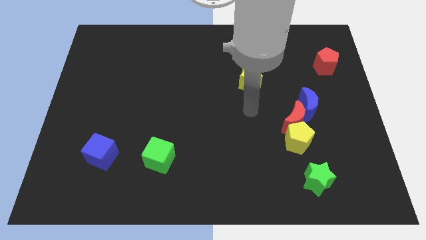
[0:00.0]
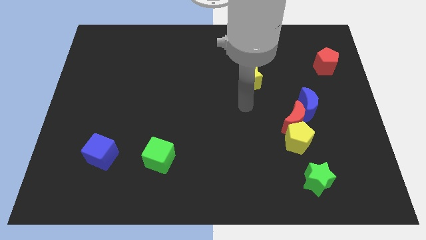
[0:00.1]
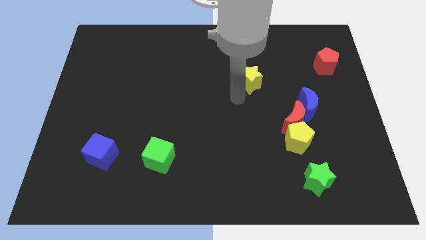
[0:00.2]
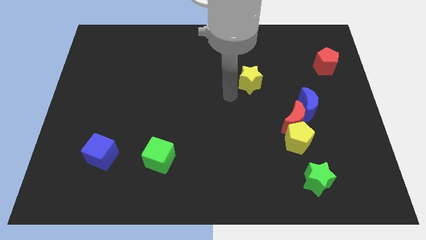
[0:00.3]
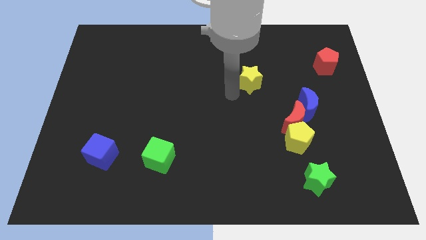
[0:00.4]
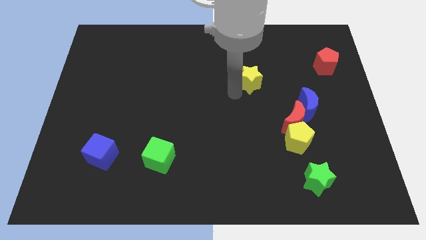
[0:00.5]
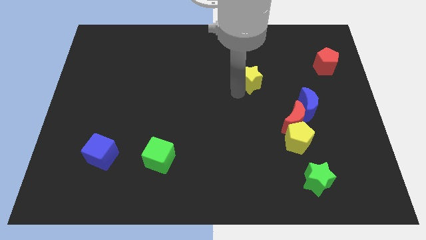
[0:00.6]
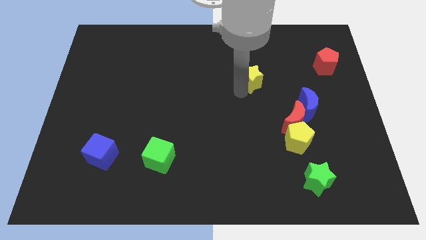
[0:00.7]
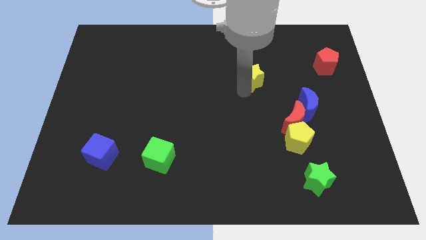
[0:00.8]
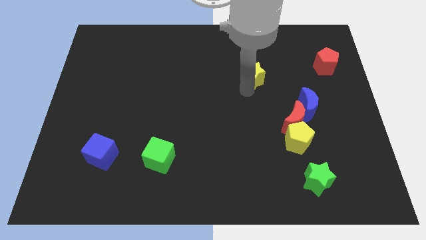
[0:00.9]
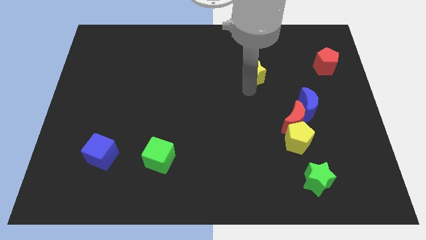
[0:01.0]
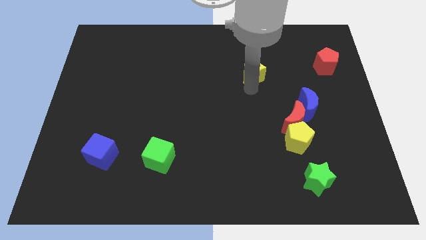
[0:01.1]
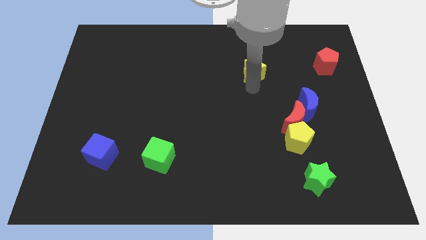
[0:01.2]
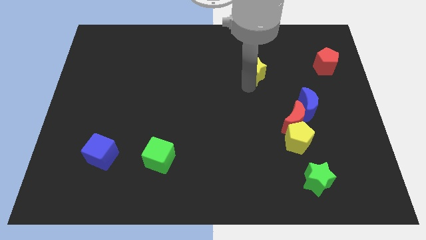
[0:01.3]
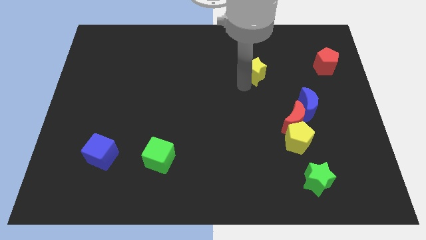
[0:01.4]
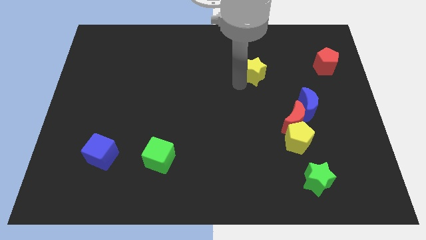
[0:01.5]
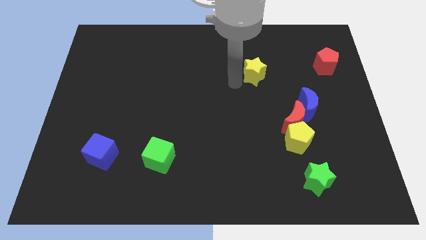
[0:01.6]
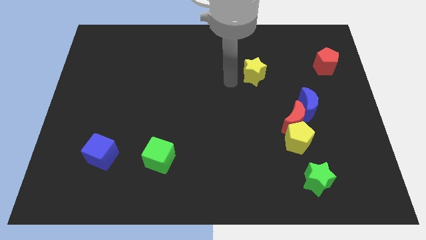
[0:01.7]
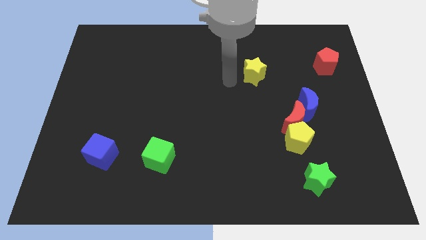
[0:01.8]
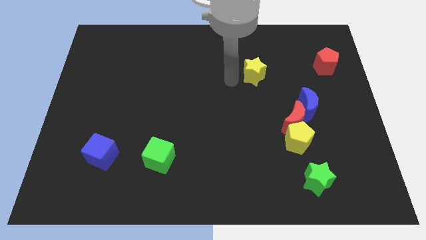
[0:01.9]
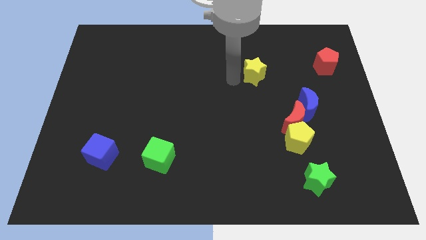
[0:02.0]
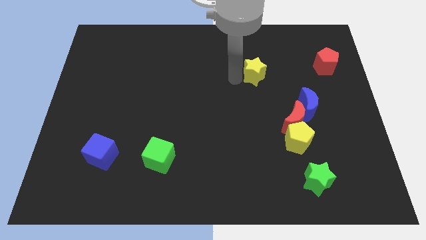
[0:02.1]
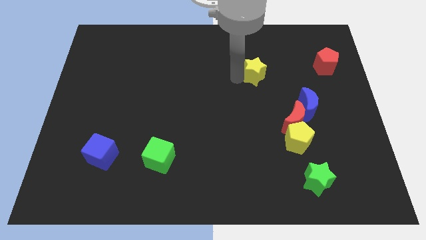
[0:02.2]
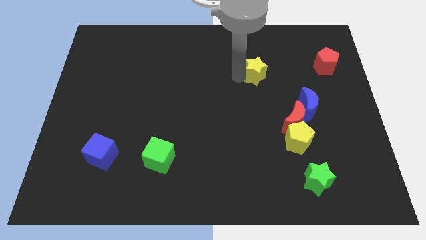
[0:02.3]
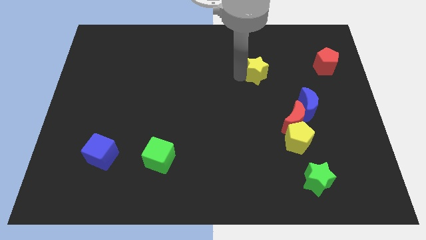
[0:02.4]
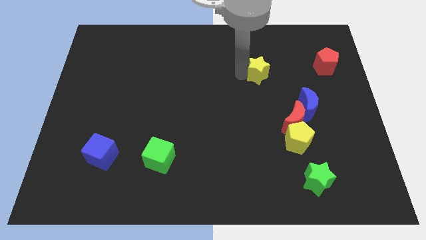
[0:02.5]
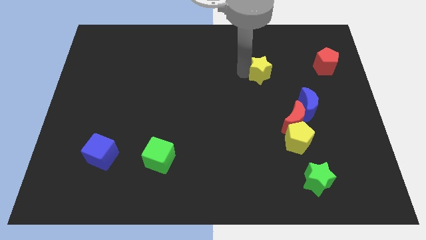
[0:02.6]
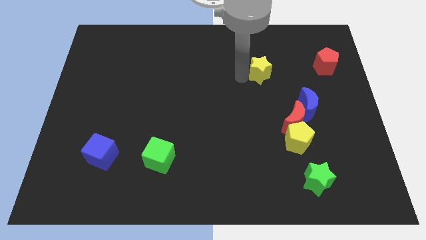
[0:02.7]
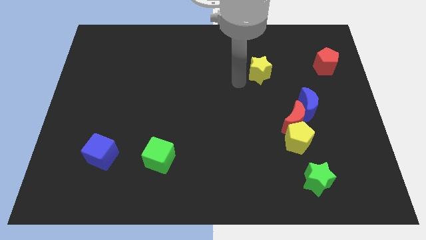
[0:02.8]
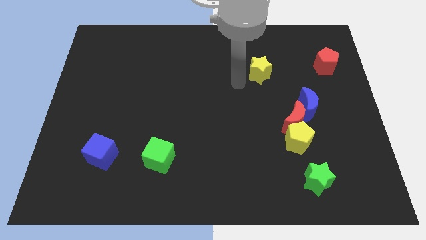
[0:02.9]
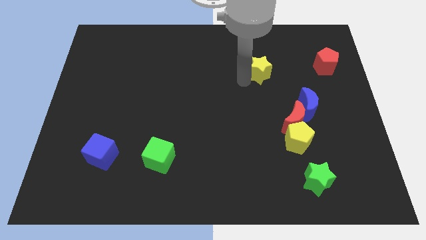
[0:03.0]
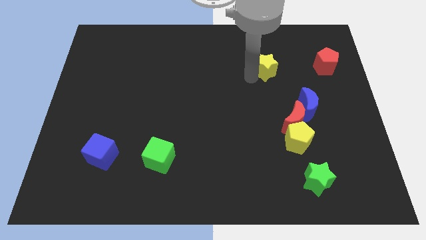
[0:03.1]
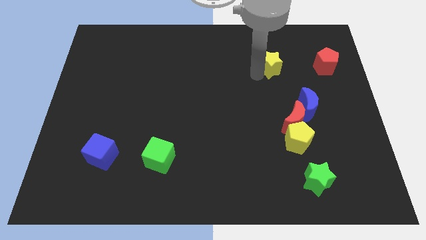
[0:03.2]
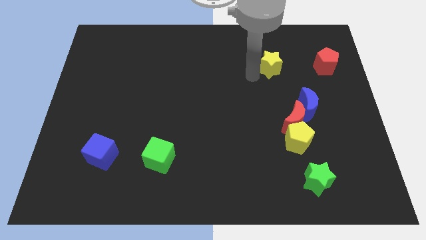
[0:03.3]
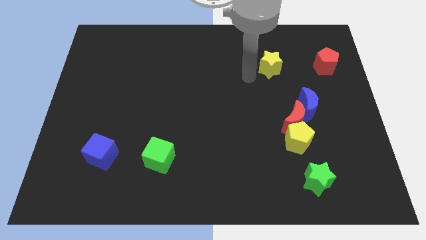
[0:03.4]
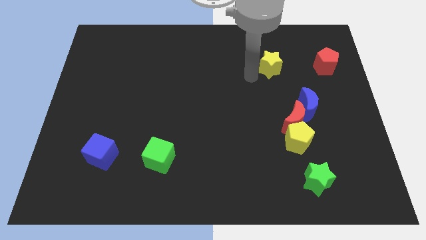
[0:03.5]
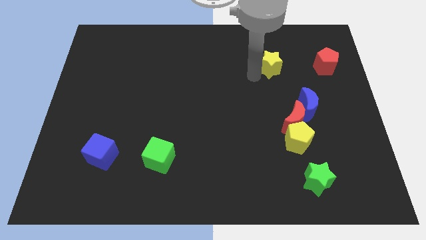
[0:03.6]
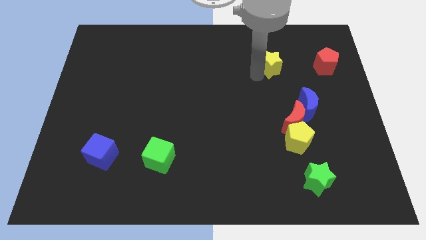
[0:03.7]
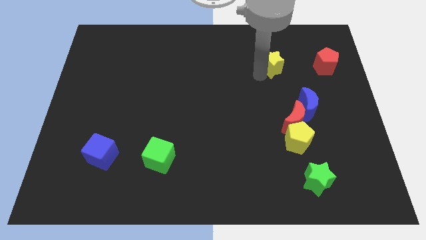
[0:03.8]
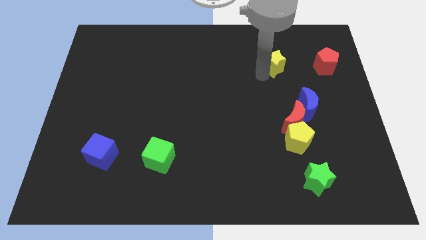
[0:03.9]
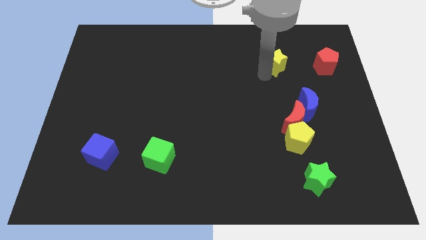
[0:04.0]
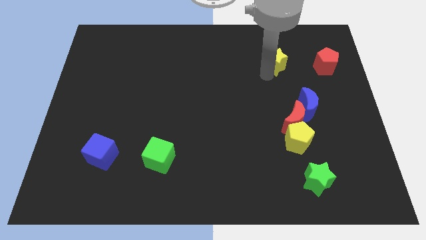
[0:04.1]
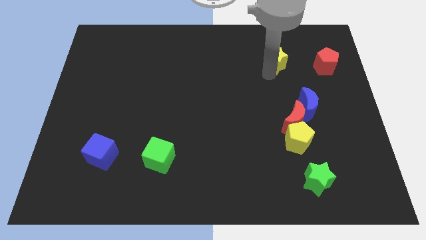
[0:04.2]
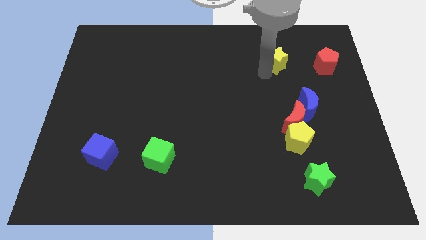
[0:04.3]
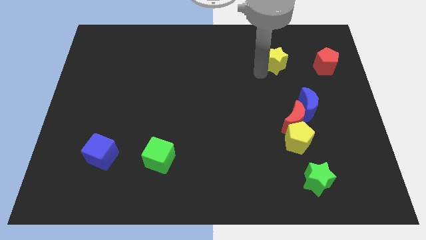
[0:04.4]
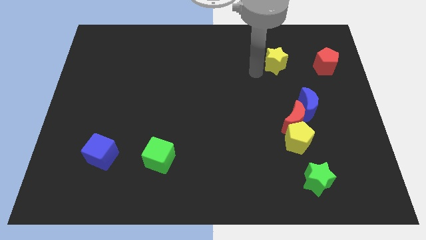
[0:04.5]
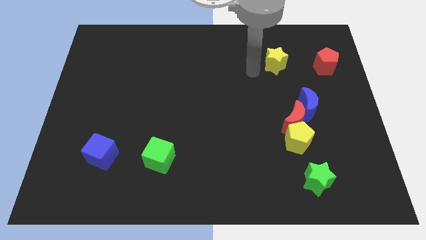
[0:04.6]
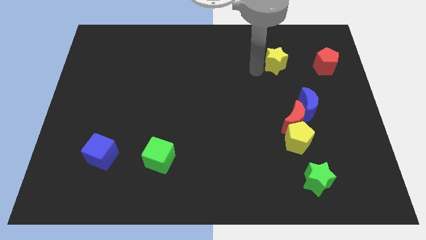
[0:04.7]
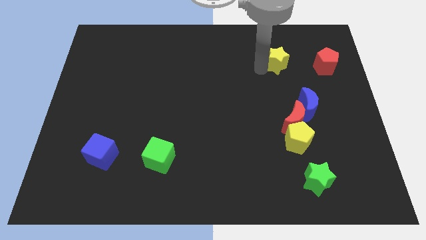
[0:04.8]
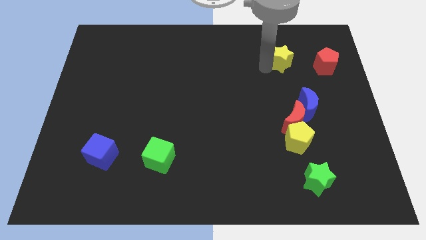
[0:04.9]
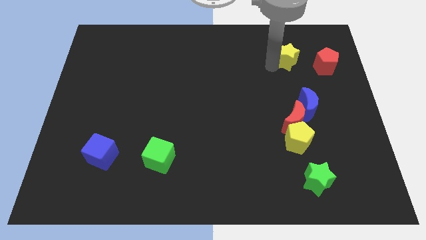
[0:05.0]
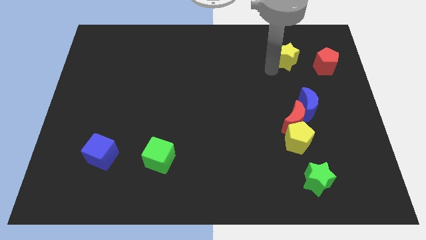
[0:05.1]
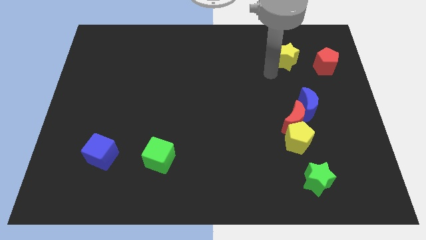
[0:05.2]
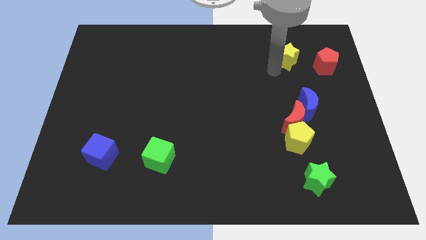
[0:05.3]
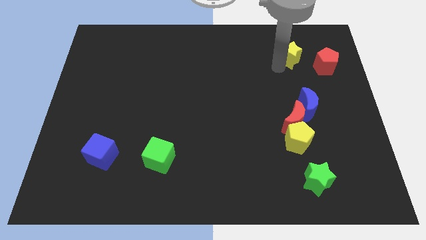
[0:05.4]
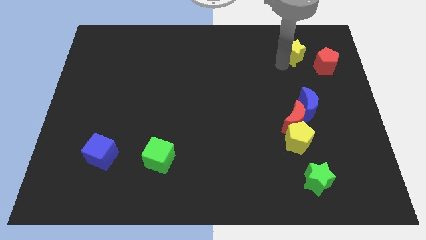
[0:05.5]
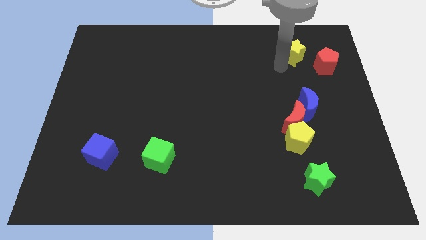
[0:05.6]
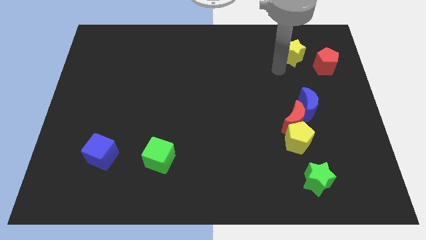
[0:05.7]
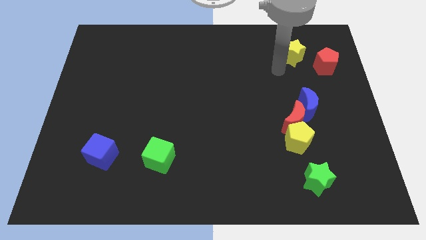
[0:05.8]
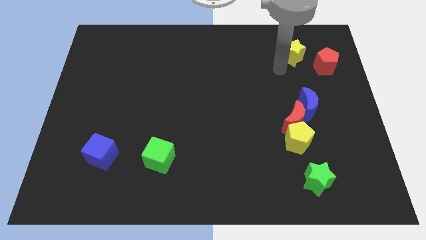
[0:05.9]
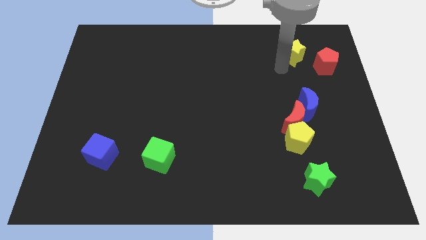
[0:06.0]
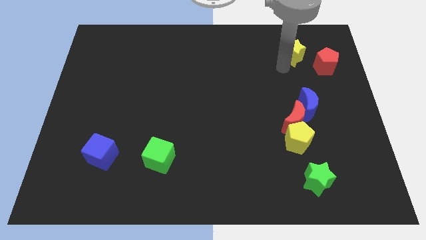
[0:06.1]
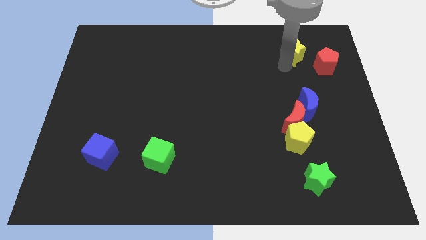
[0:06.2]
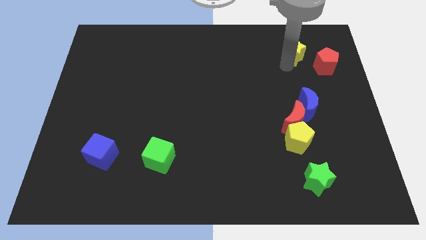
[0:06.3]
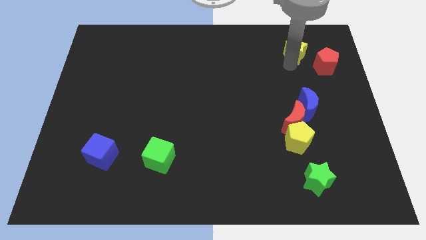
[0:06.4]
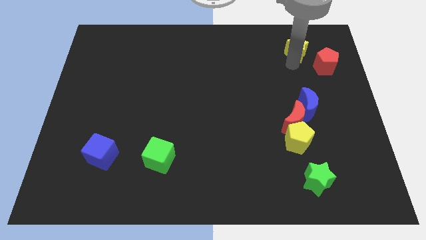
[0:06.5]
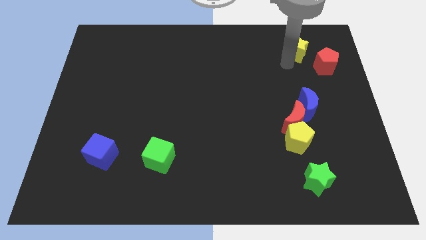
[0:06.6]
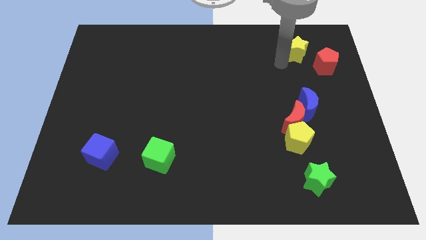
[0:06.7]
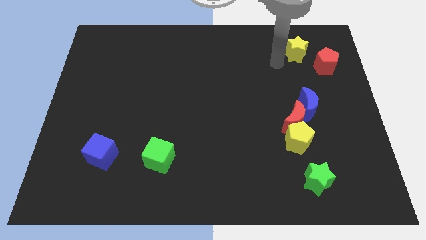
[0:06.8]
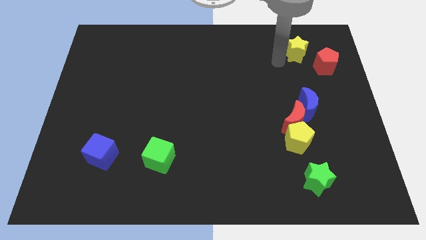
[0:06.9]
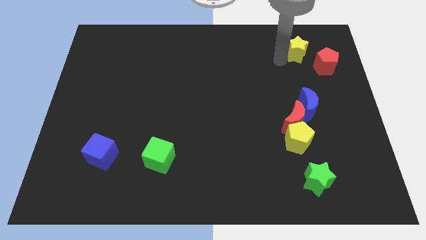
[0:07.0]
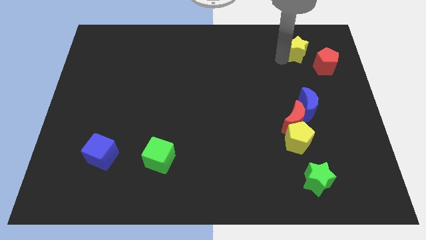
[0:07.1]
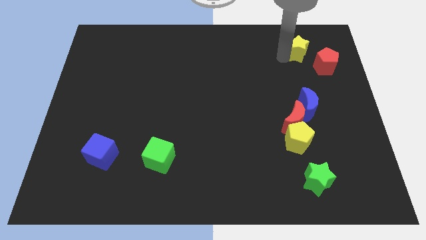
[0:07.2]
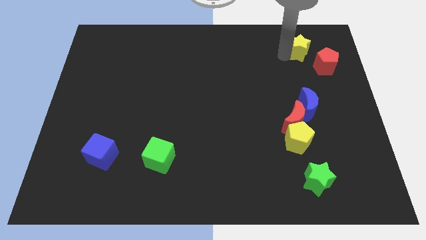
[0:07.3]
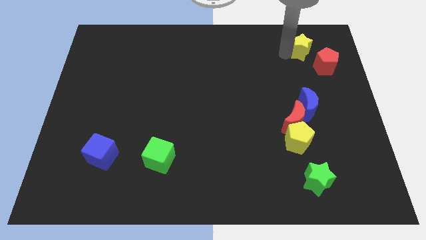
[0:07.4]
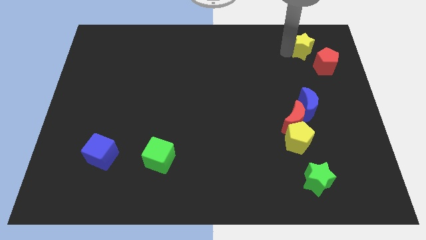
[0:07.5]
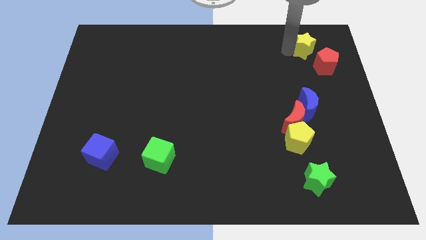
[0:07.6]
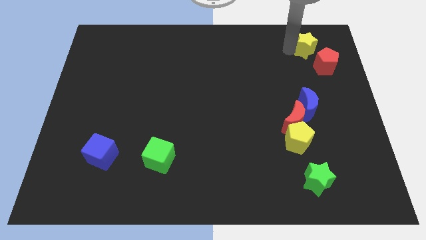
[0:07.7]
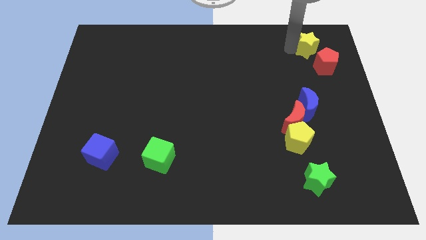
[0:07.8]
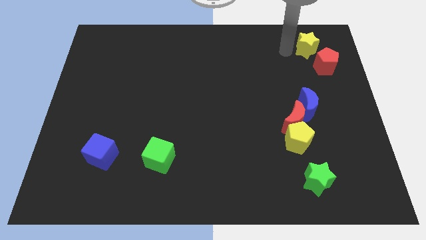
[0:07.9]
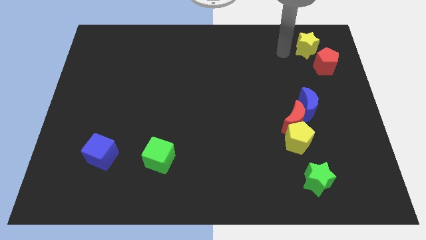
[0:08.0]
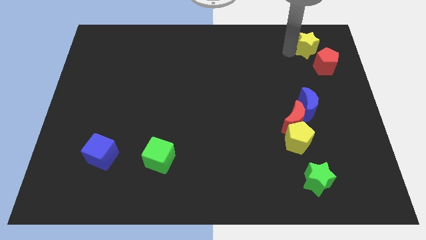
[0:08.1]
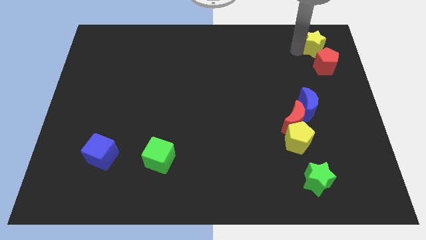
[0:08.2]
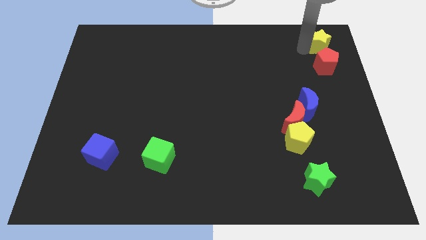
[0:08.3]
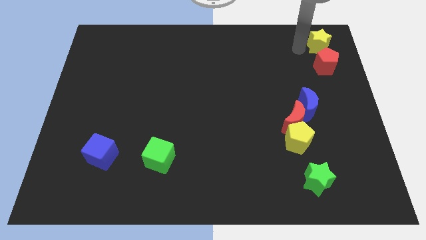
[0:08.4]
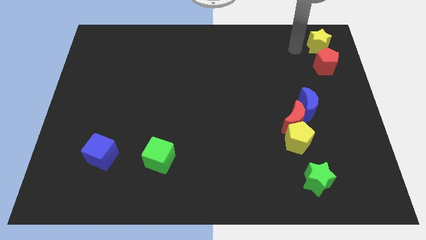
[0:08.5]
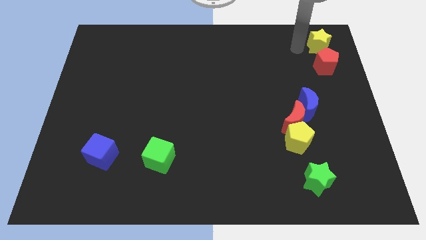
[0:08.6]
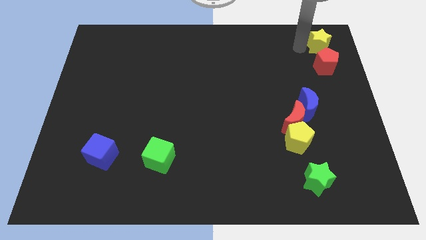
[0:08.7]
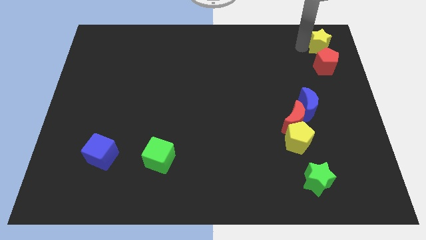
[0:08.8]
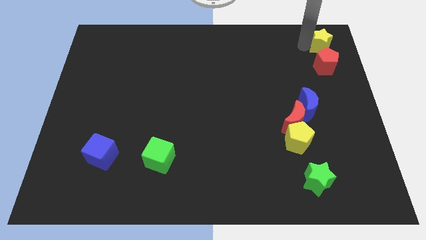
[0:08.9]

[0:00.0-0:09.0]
put the yellow star to the top right
